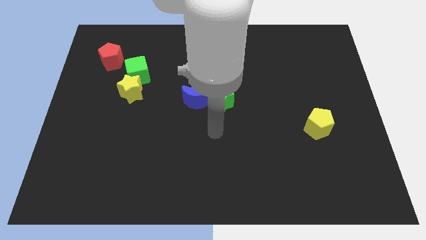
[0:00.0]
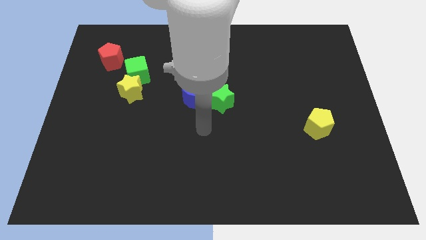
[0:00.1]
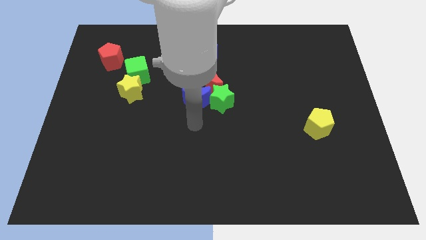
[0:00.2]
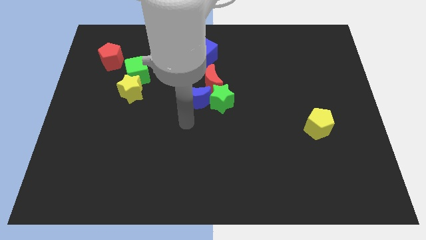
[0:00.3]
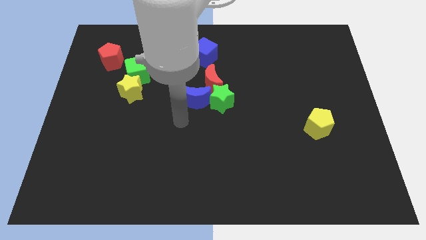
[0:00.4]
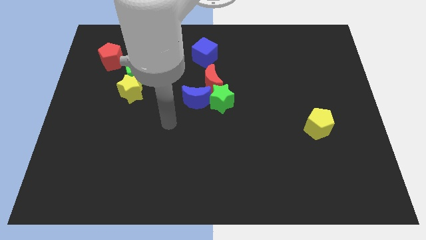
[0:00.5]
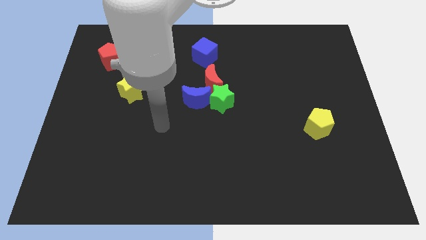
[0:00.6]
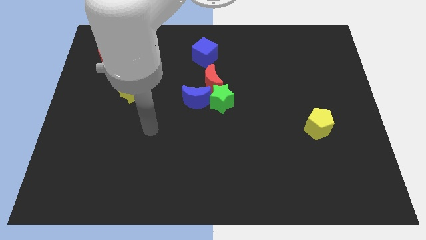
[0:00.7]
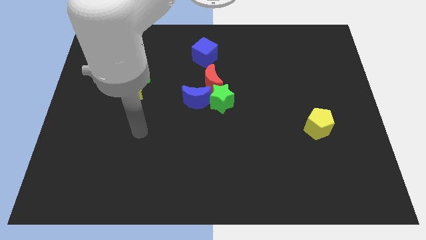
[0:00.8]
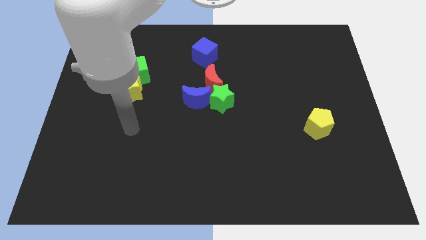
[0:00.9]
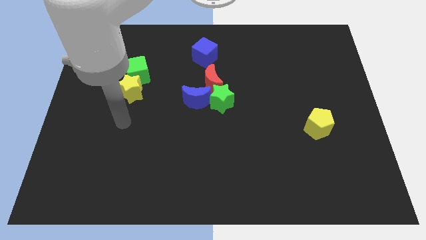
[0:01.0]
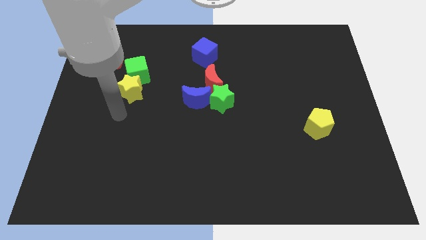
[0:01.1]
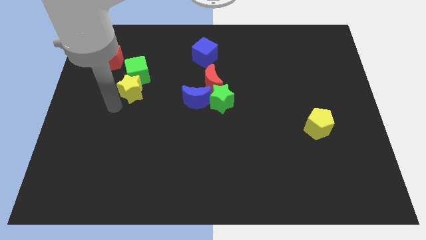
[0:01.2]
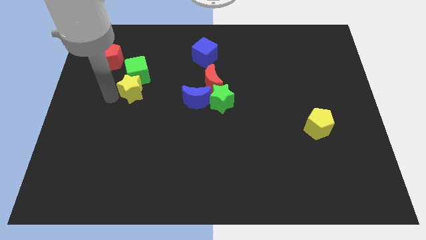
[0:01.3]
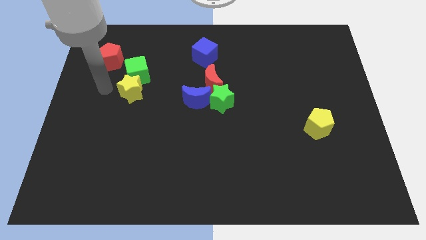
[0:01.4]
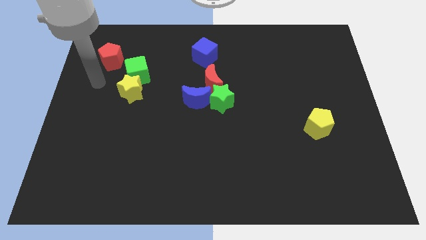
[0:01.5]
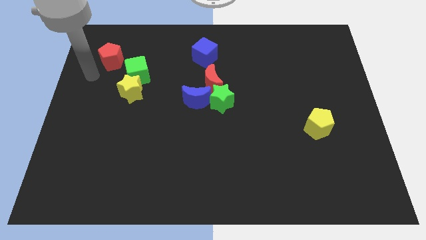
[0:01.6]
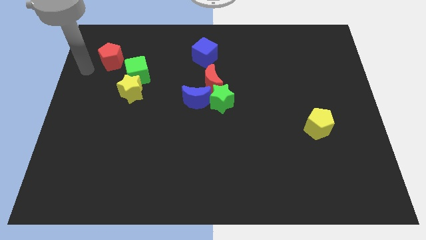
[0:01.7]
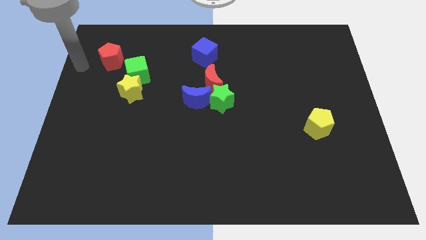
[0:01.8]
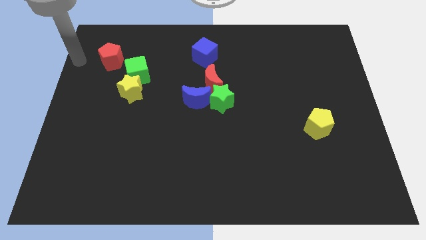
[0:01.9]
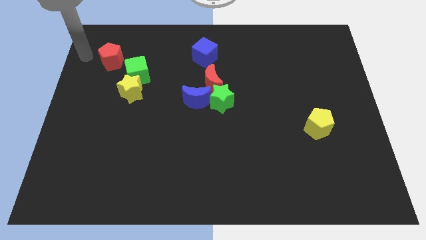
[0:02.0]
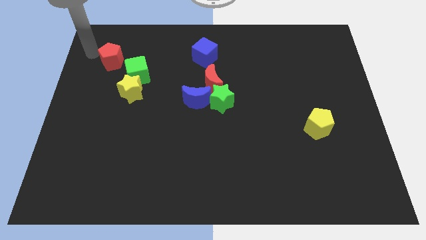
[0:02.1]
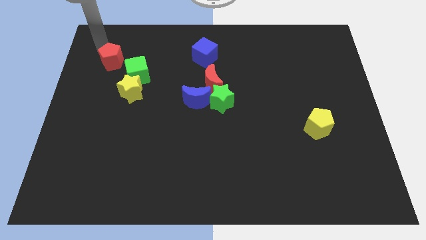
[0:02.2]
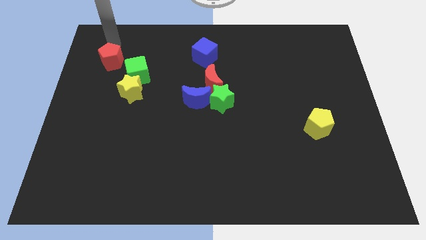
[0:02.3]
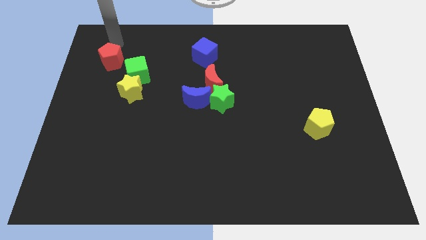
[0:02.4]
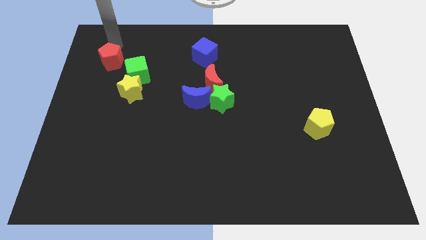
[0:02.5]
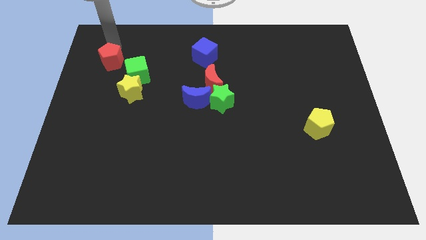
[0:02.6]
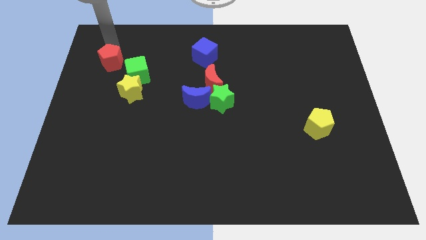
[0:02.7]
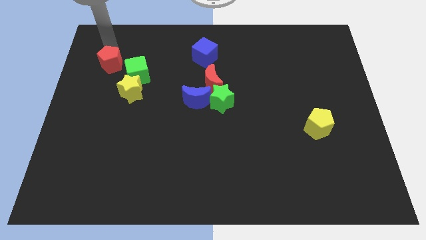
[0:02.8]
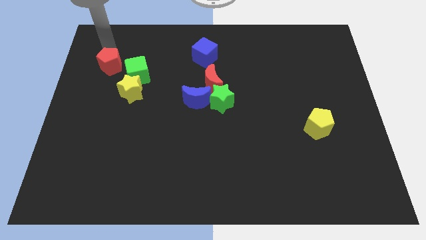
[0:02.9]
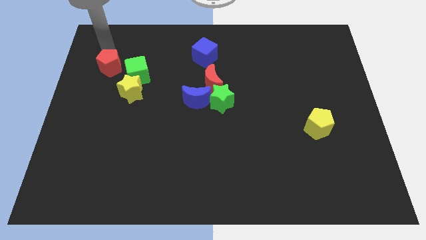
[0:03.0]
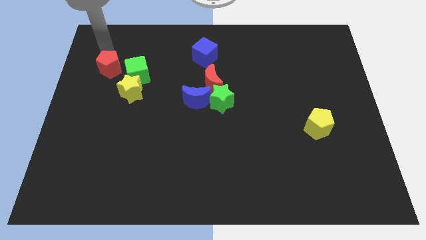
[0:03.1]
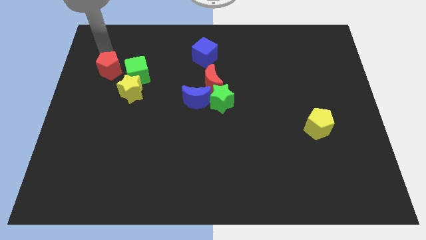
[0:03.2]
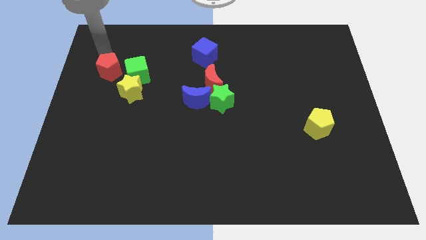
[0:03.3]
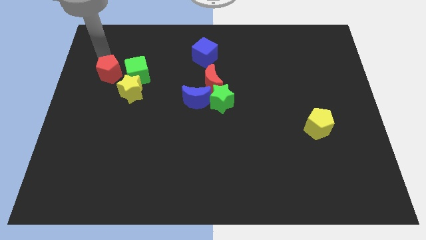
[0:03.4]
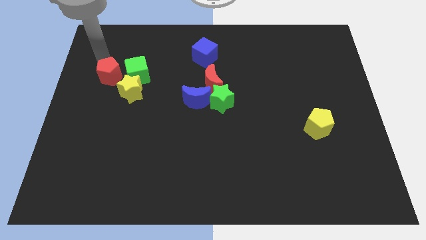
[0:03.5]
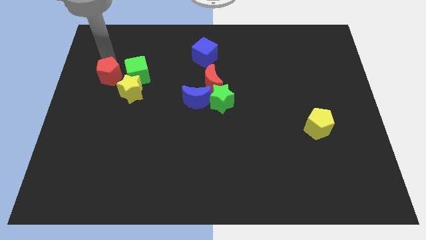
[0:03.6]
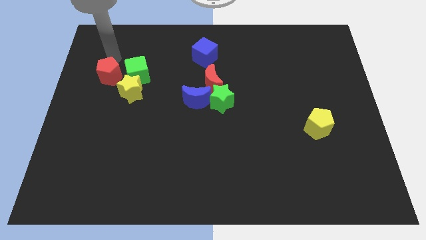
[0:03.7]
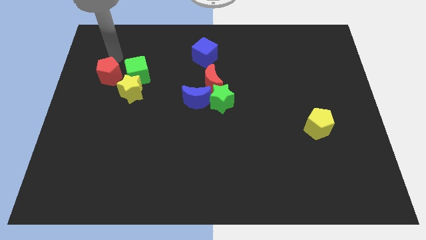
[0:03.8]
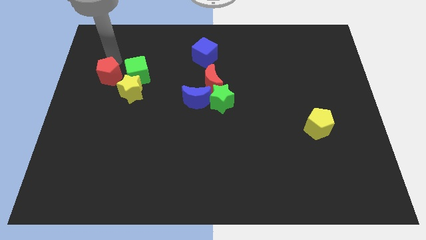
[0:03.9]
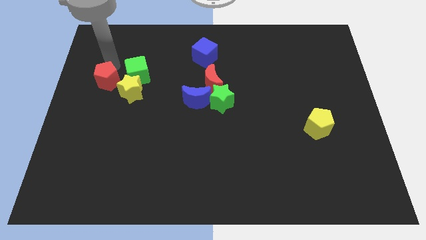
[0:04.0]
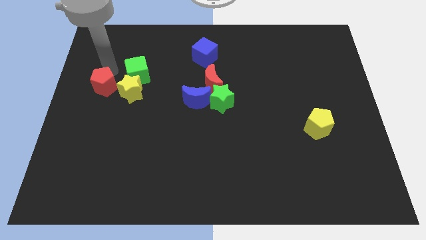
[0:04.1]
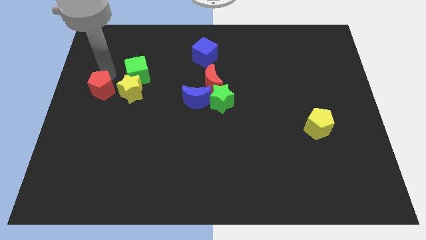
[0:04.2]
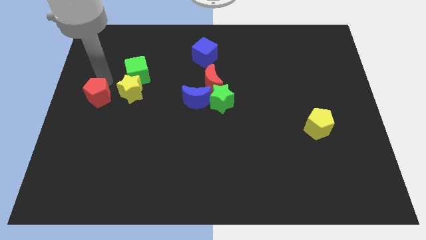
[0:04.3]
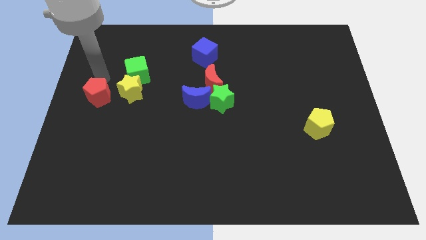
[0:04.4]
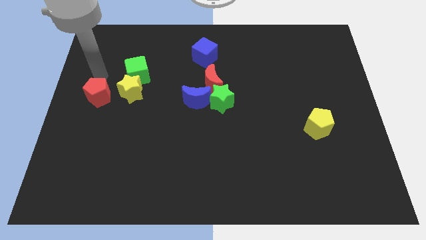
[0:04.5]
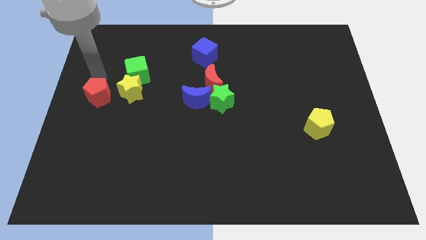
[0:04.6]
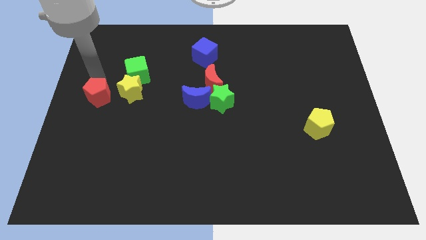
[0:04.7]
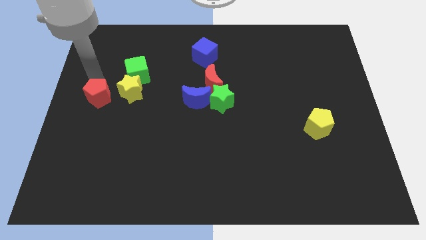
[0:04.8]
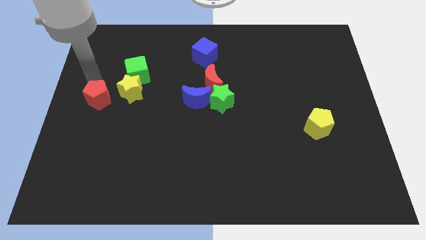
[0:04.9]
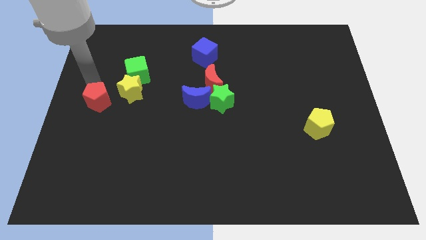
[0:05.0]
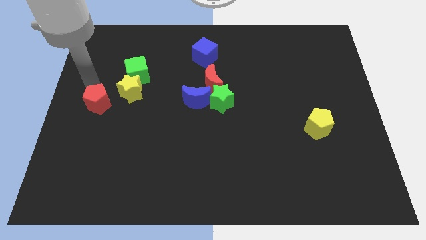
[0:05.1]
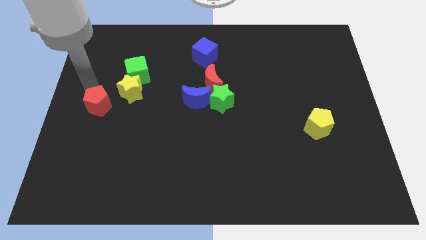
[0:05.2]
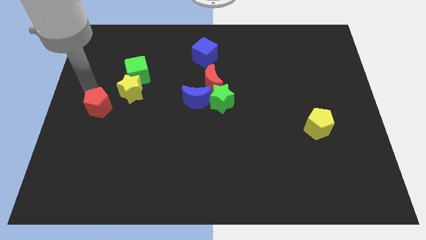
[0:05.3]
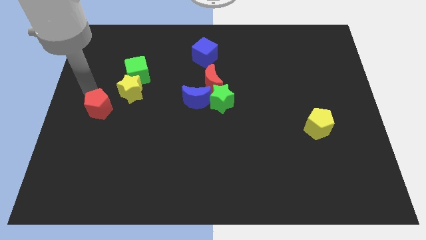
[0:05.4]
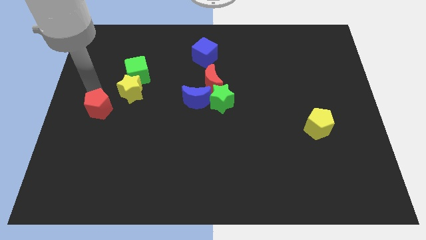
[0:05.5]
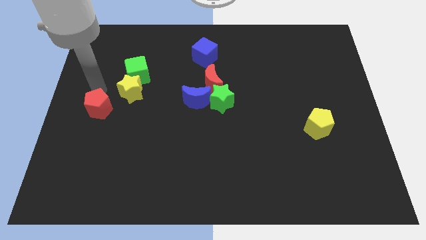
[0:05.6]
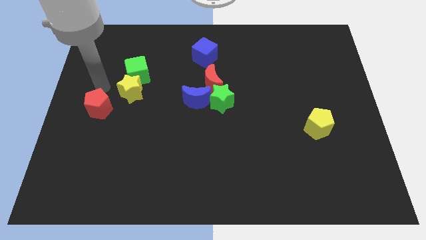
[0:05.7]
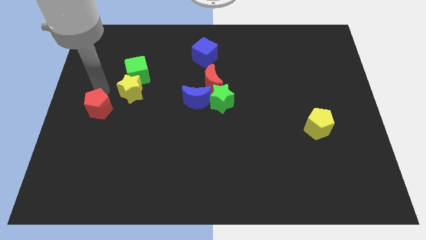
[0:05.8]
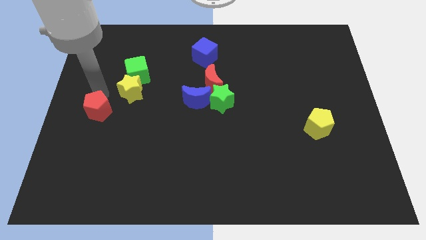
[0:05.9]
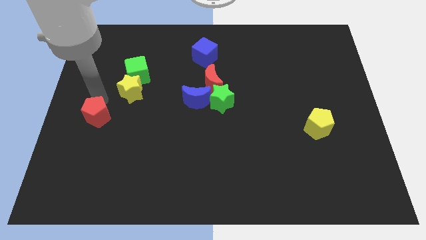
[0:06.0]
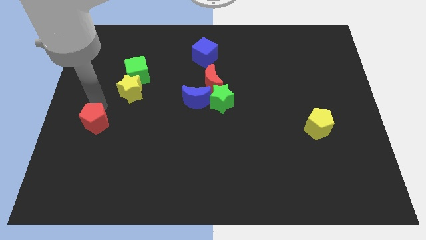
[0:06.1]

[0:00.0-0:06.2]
push the red pentagon downwards

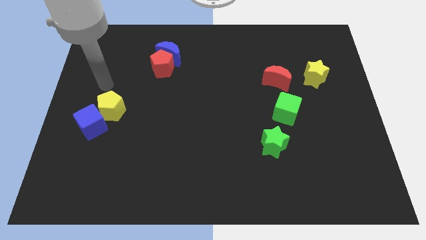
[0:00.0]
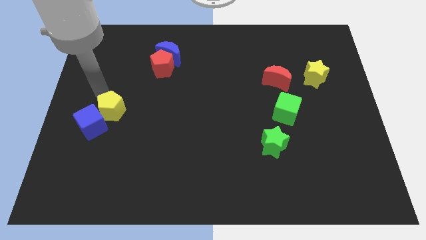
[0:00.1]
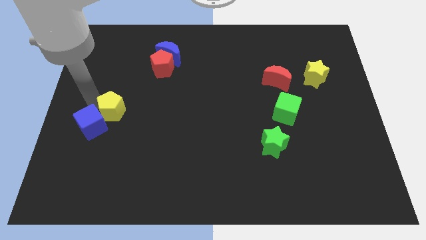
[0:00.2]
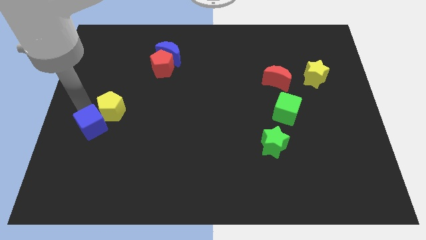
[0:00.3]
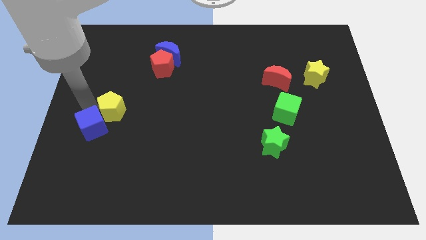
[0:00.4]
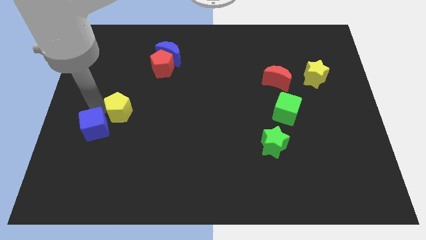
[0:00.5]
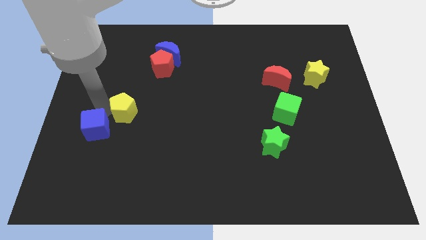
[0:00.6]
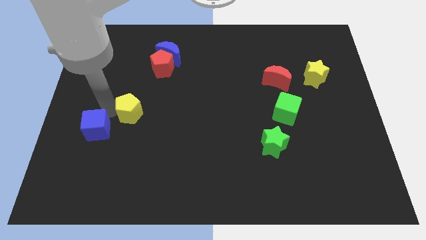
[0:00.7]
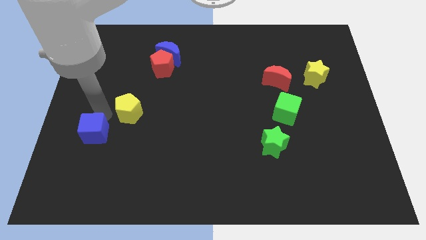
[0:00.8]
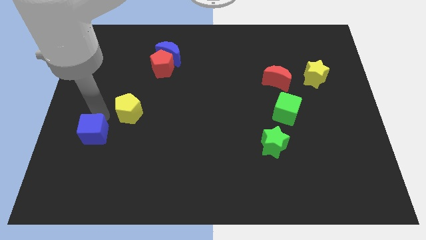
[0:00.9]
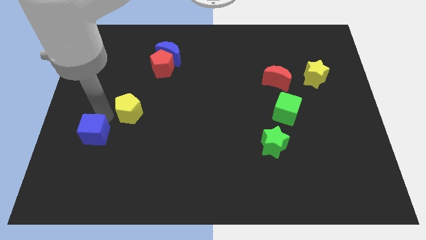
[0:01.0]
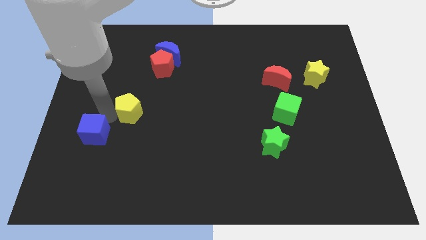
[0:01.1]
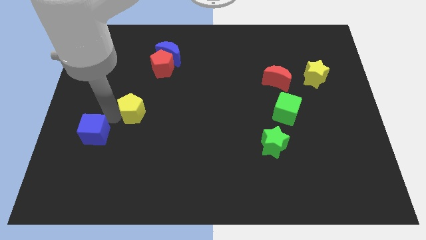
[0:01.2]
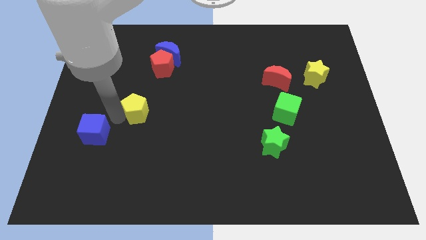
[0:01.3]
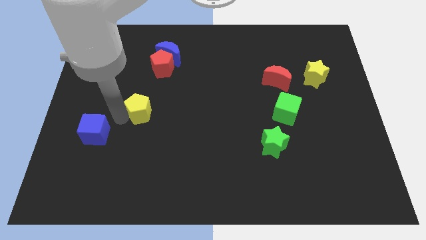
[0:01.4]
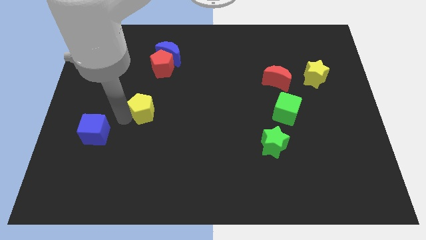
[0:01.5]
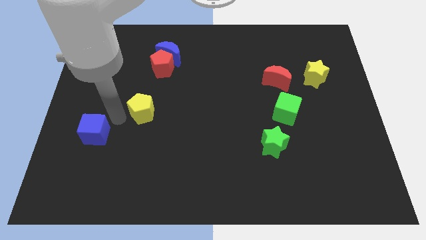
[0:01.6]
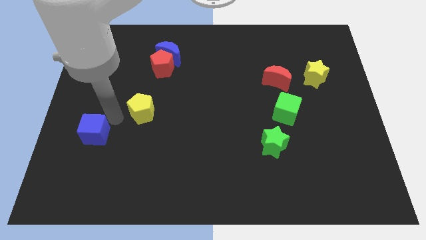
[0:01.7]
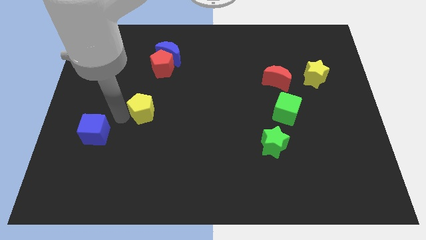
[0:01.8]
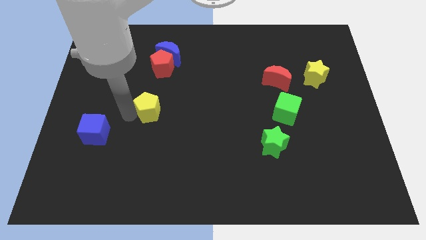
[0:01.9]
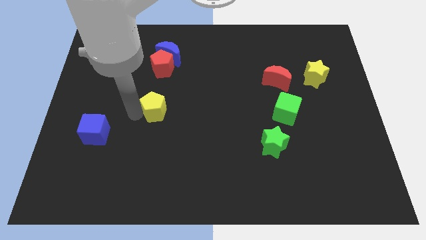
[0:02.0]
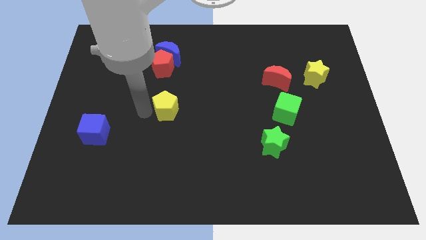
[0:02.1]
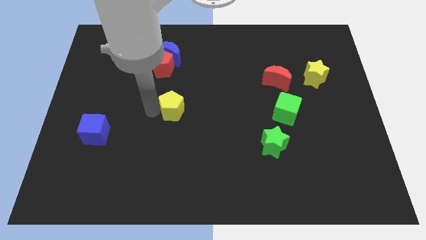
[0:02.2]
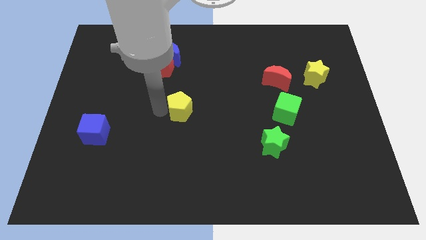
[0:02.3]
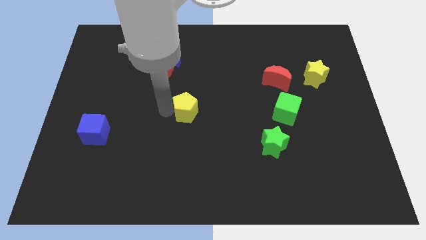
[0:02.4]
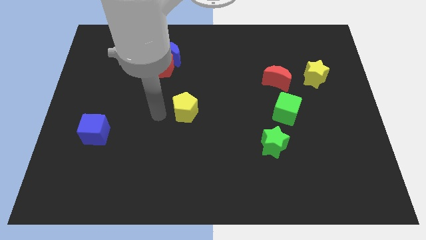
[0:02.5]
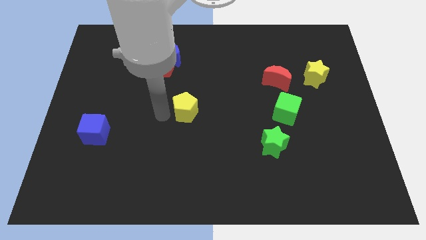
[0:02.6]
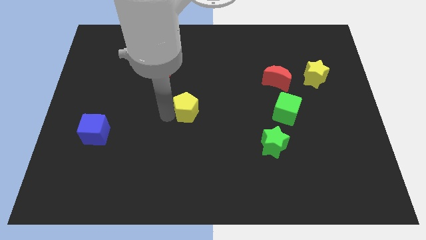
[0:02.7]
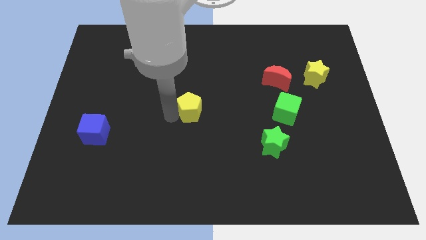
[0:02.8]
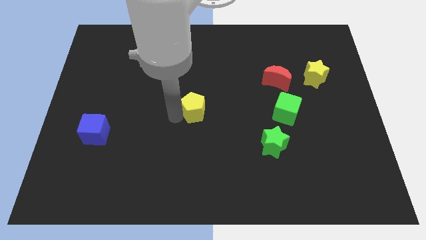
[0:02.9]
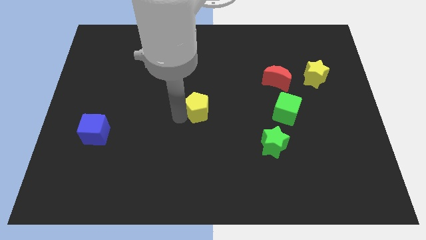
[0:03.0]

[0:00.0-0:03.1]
move the yellow pentagon to the right
